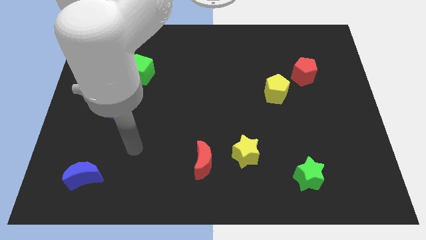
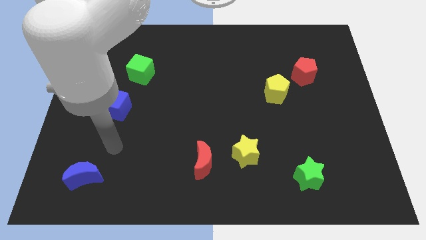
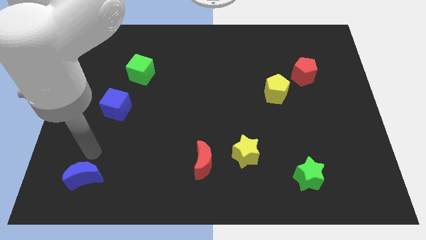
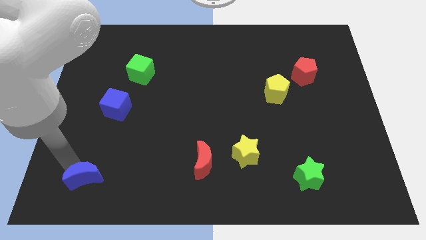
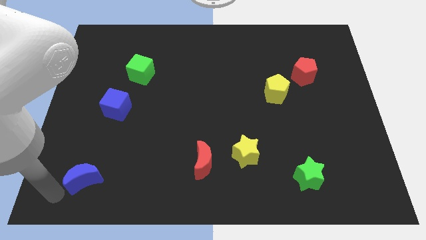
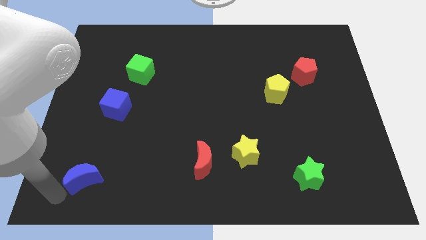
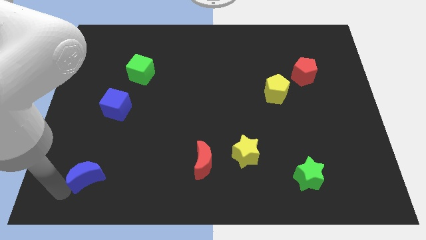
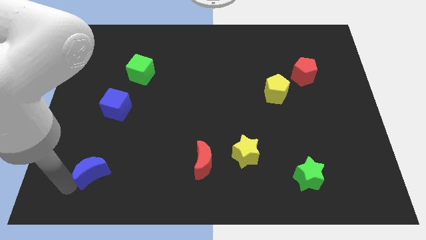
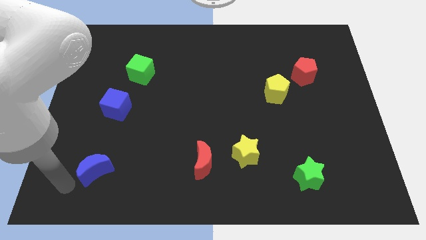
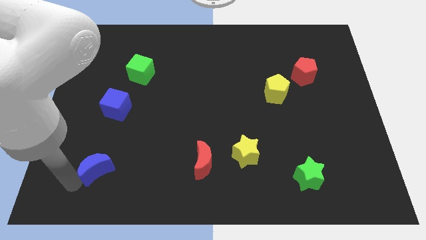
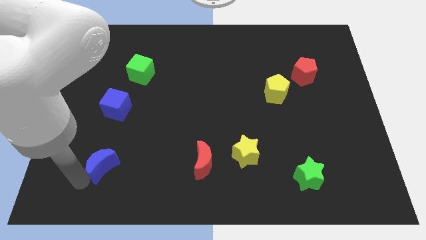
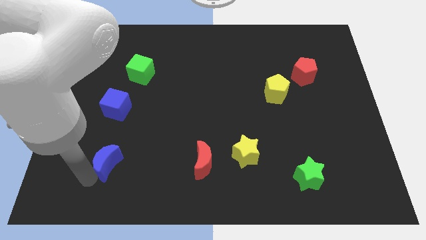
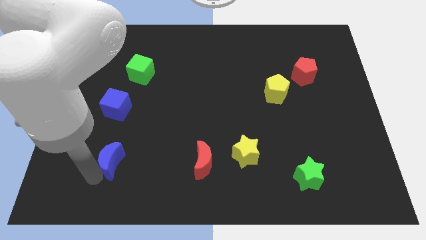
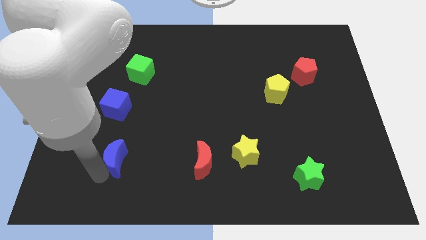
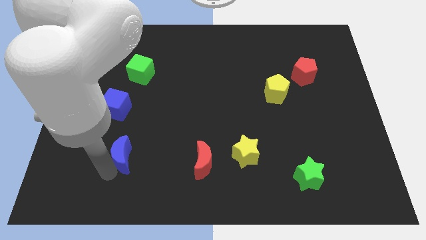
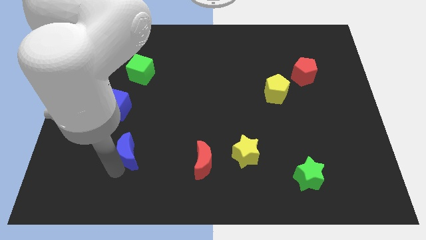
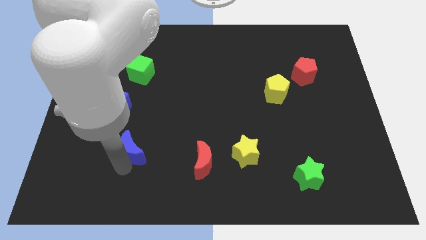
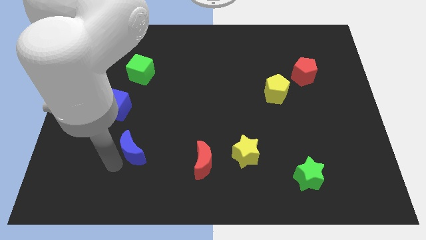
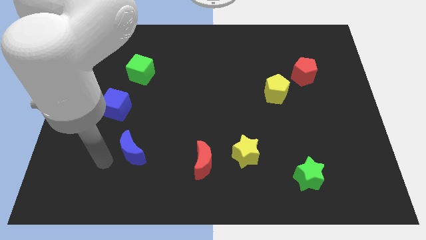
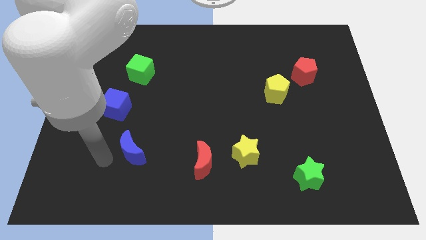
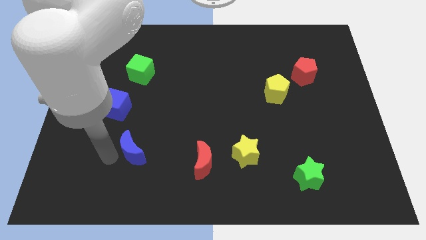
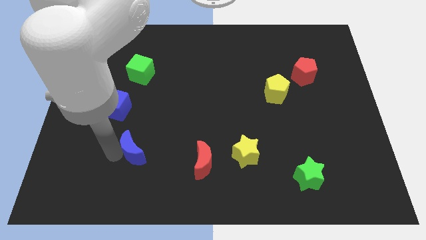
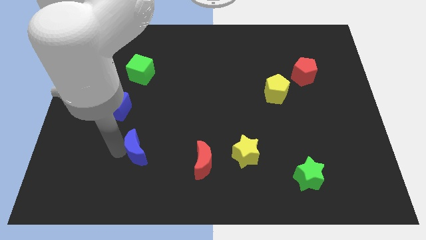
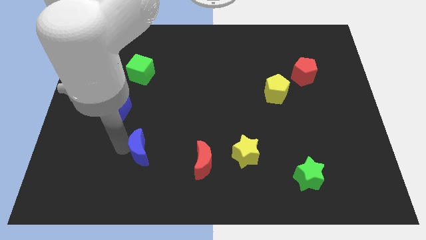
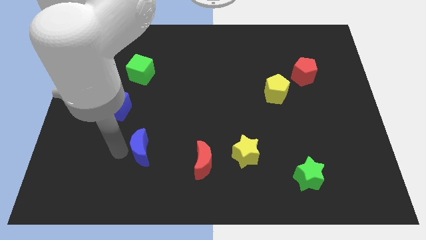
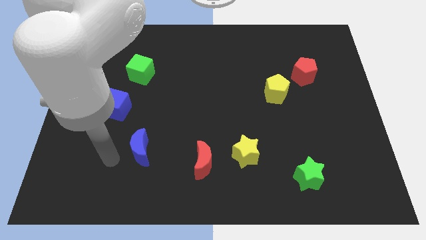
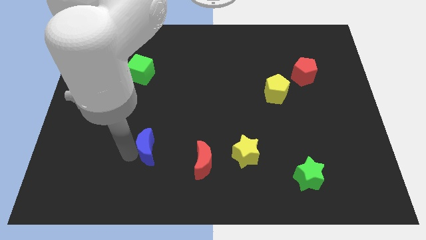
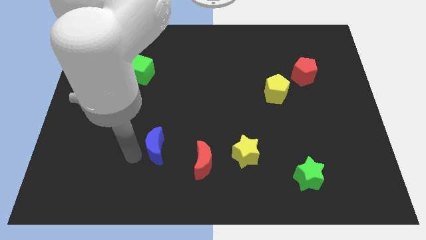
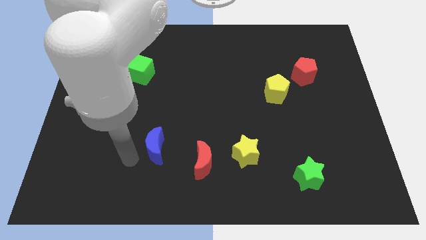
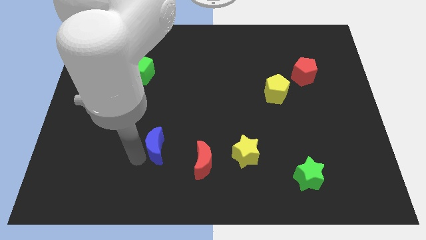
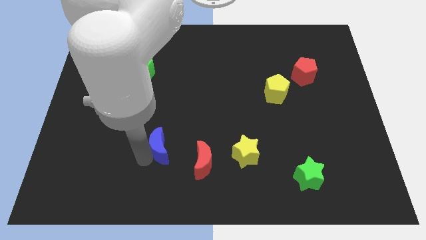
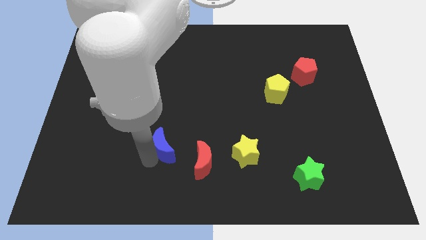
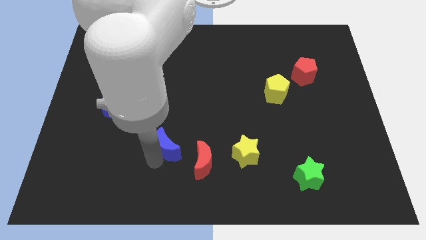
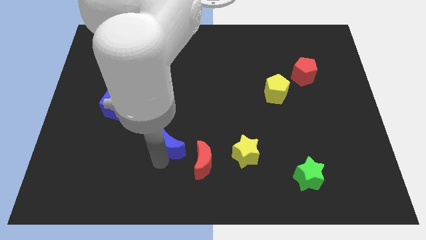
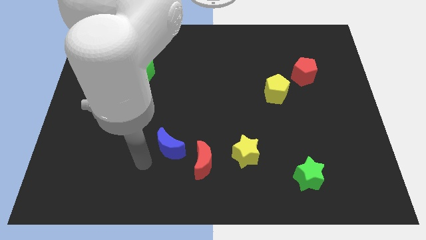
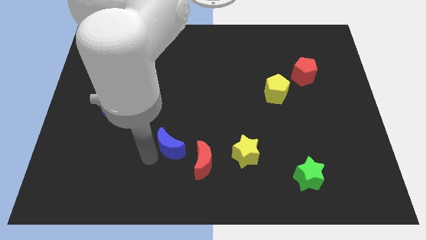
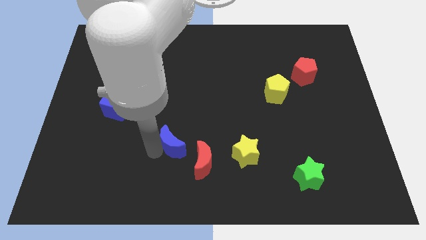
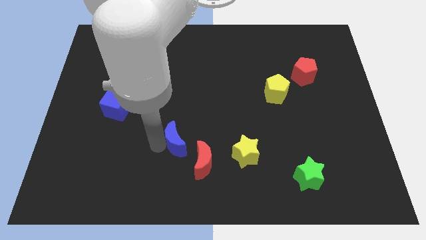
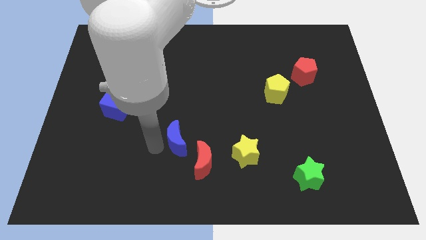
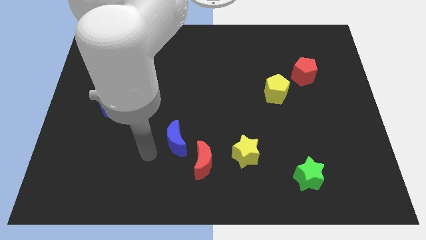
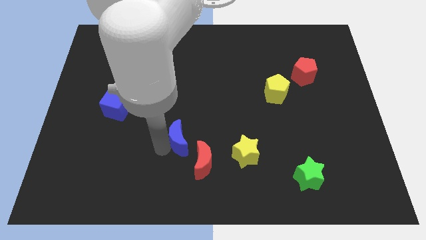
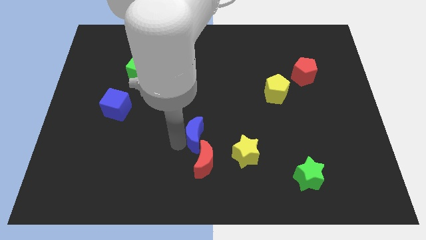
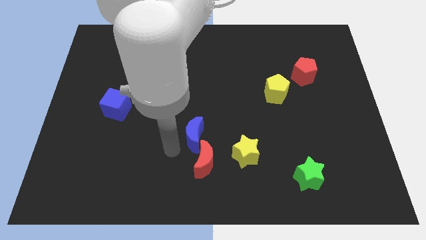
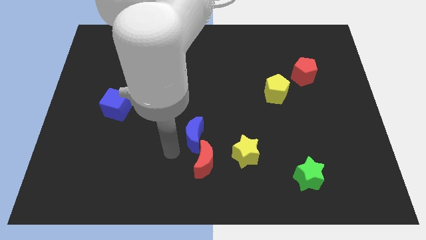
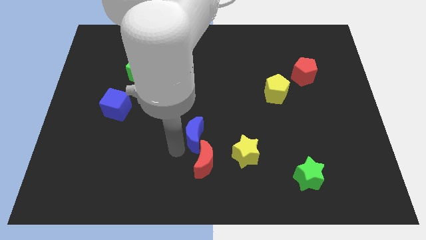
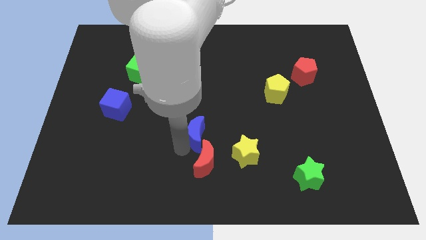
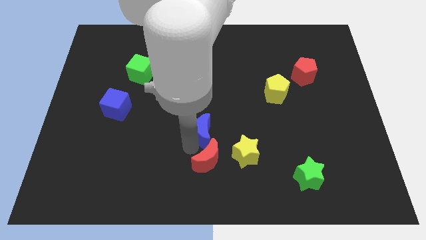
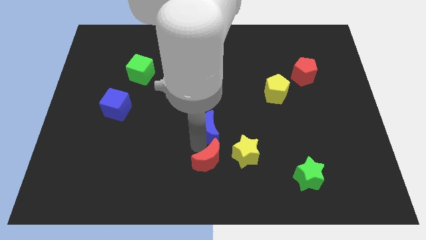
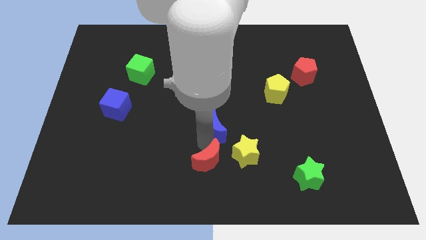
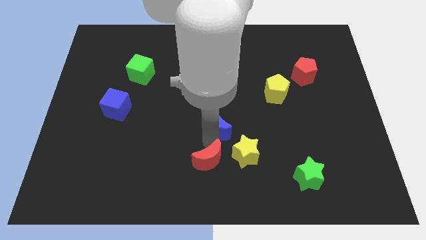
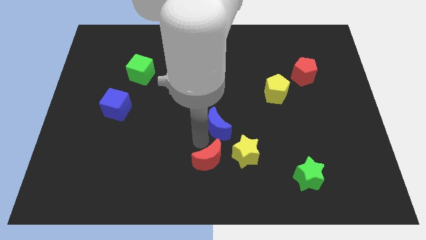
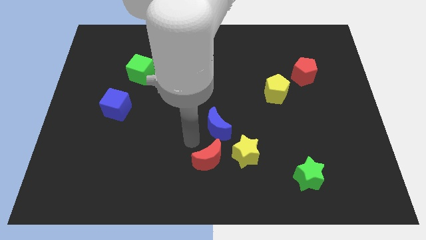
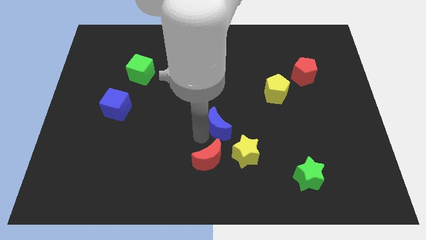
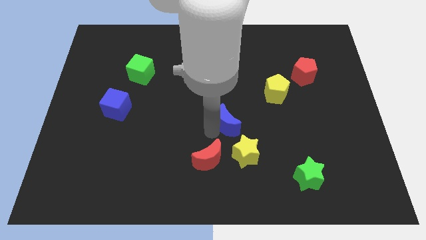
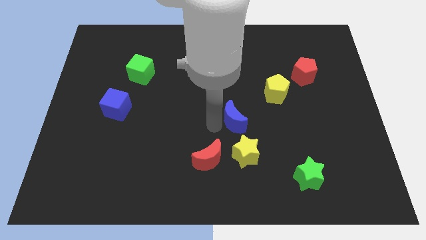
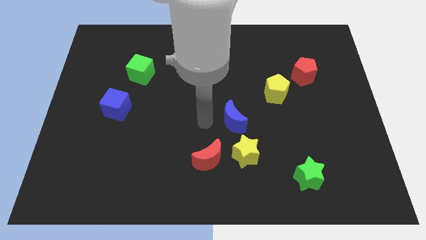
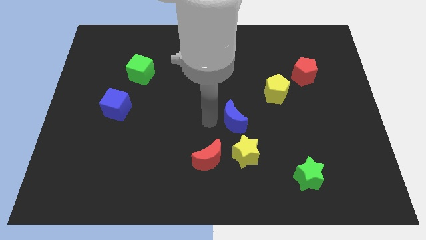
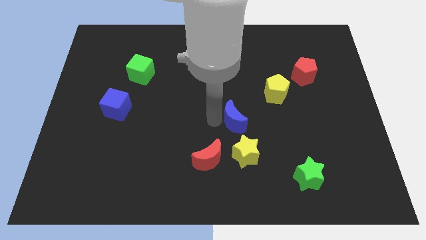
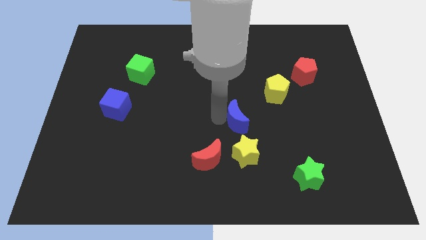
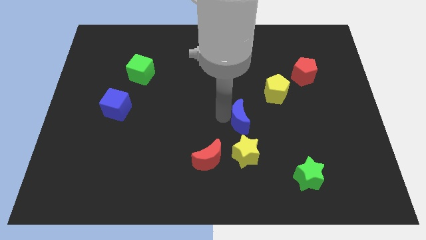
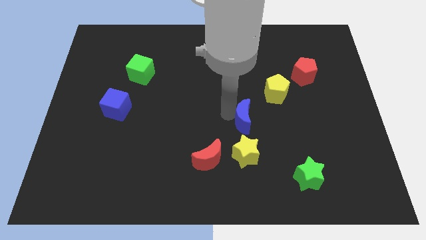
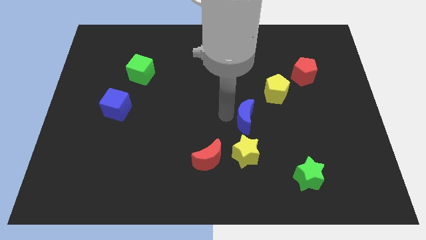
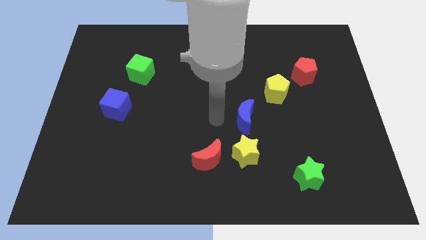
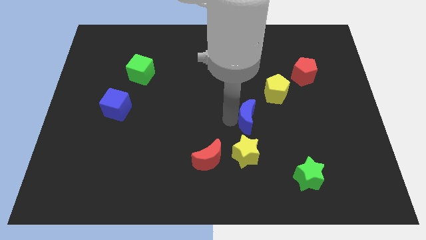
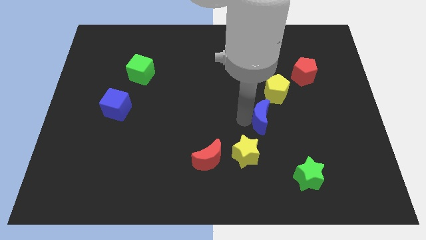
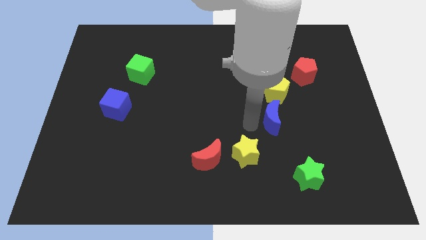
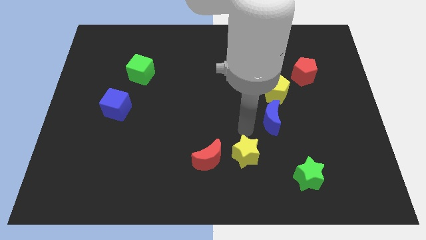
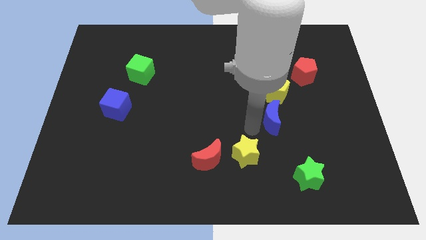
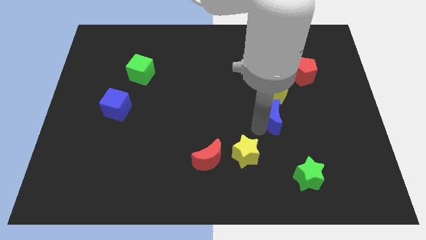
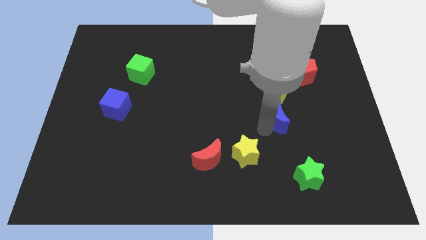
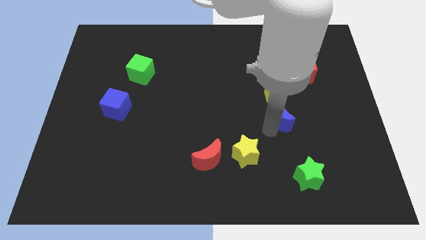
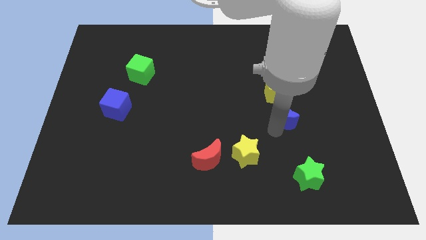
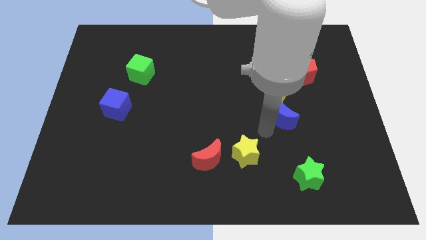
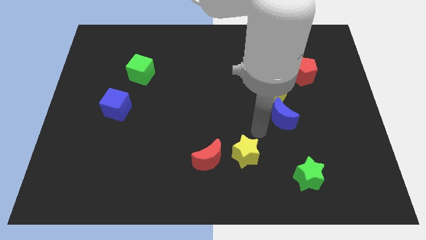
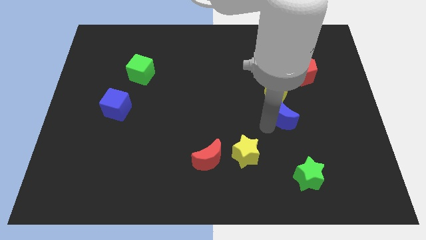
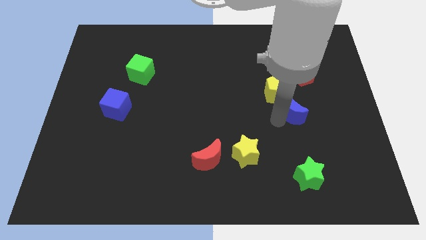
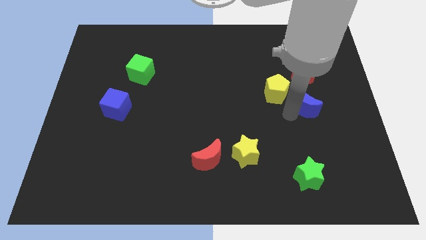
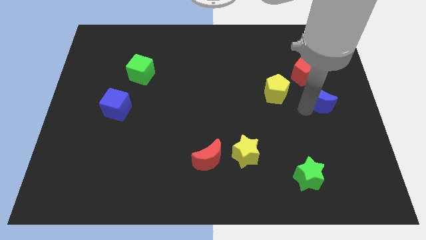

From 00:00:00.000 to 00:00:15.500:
push the blue moon to the bottom right side of the red pentagon
